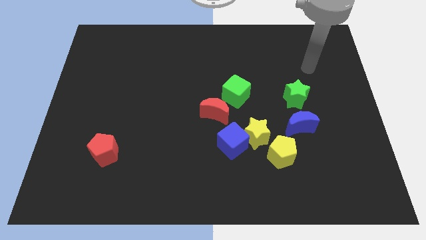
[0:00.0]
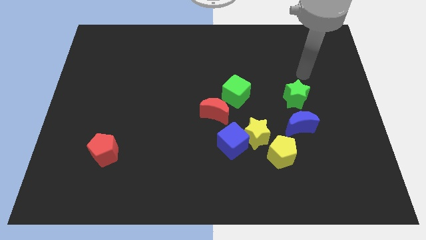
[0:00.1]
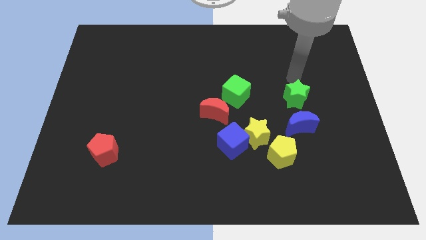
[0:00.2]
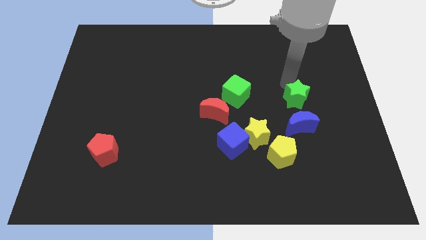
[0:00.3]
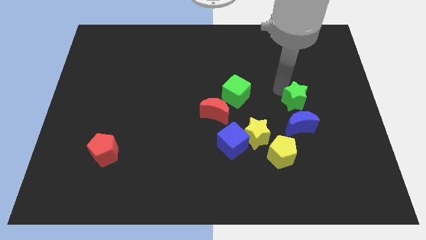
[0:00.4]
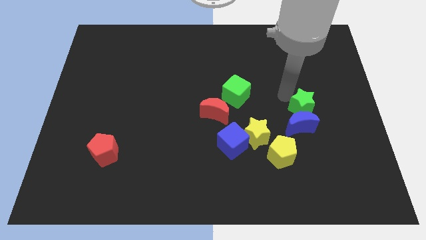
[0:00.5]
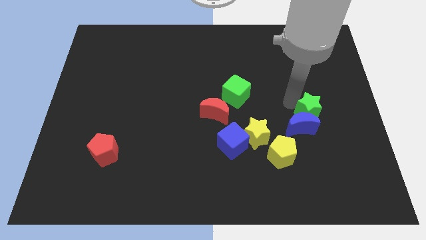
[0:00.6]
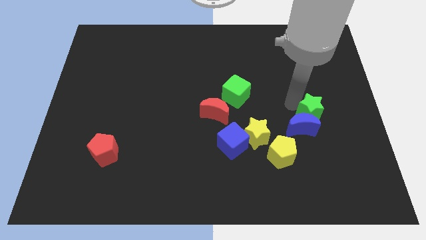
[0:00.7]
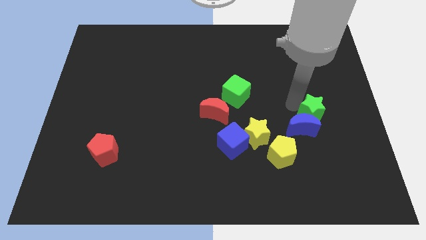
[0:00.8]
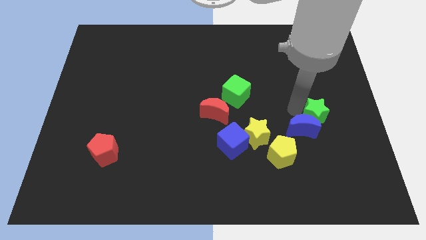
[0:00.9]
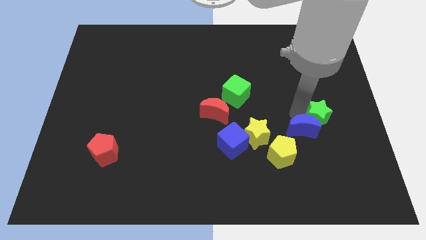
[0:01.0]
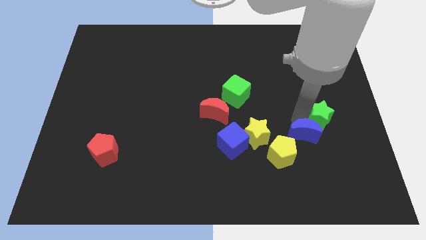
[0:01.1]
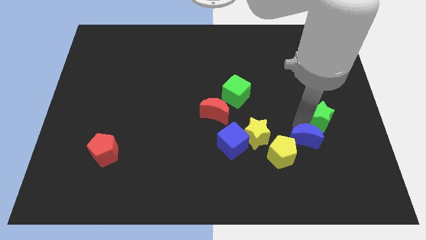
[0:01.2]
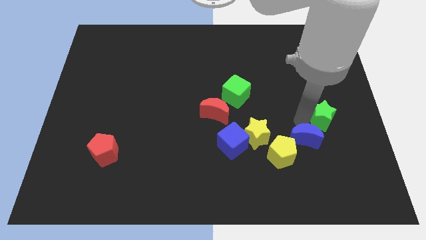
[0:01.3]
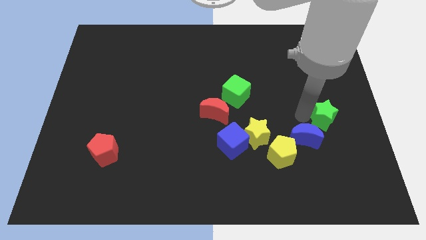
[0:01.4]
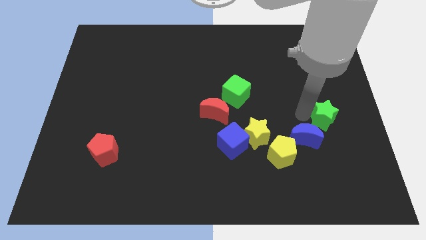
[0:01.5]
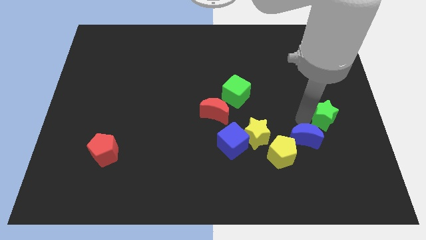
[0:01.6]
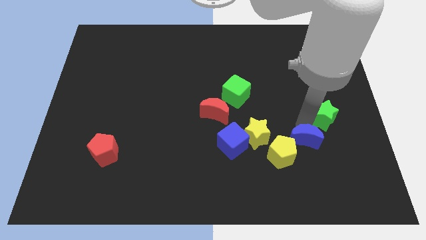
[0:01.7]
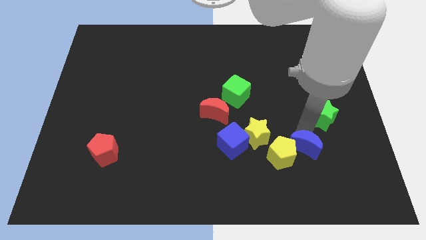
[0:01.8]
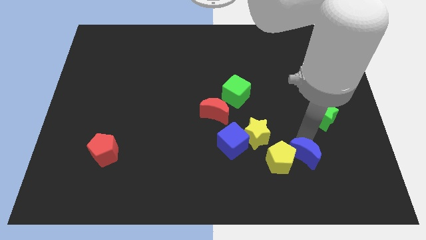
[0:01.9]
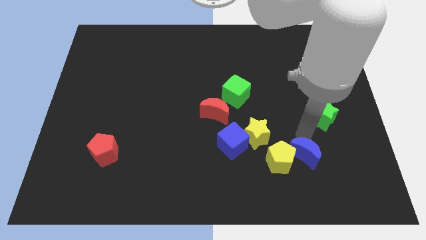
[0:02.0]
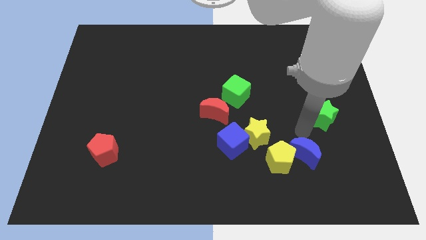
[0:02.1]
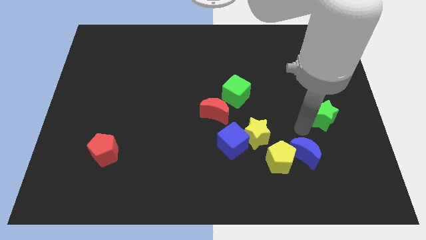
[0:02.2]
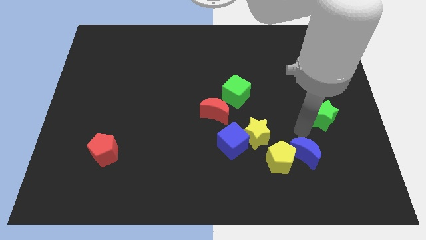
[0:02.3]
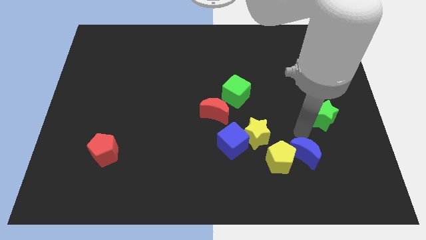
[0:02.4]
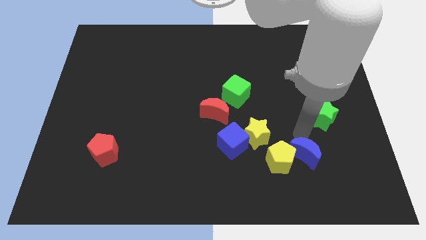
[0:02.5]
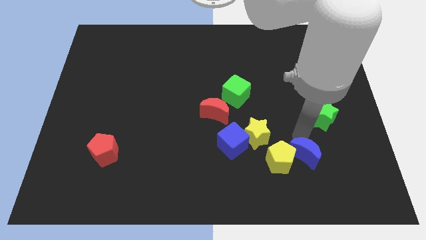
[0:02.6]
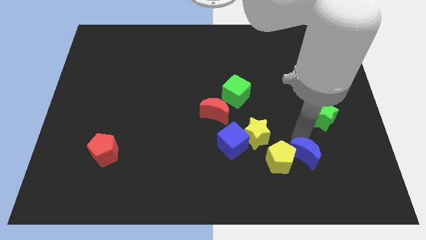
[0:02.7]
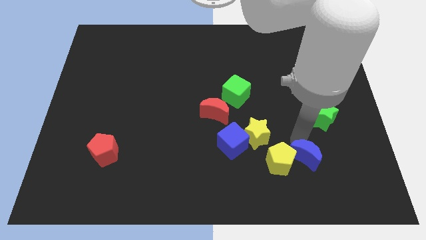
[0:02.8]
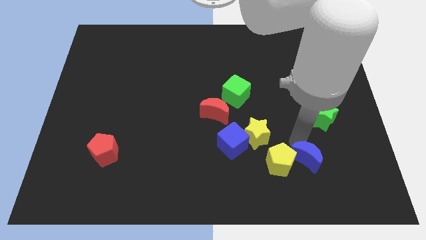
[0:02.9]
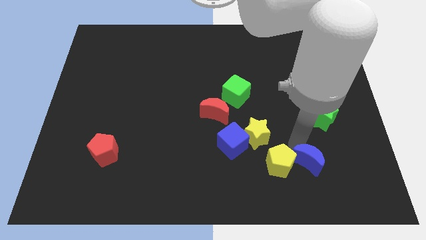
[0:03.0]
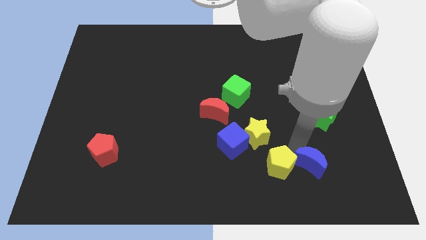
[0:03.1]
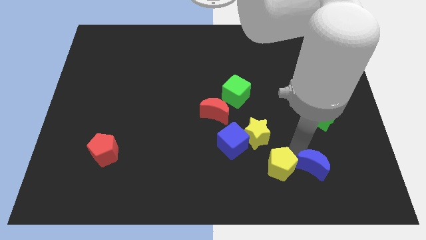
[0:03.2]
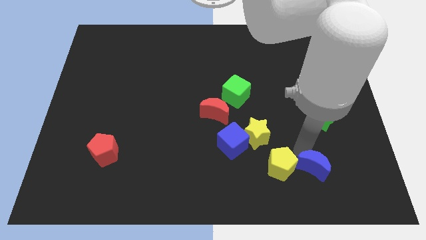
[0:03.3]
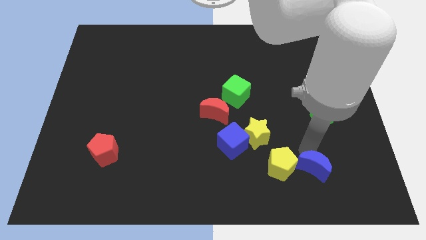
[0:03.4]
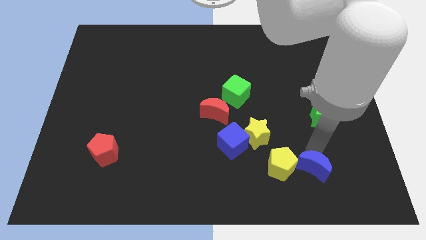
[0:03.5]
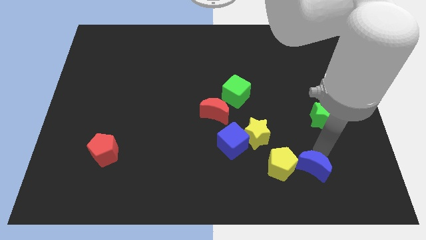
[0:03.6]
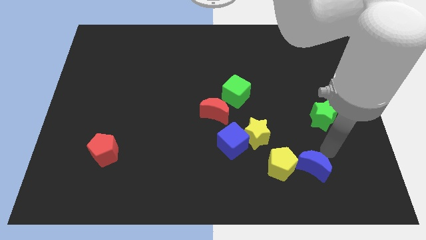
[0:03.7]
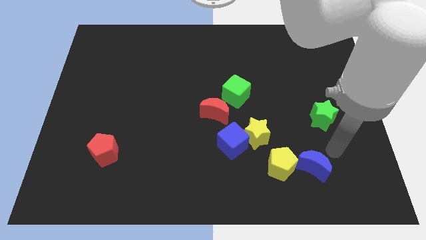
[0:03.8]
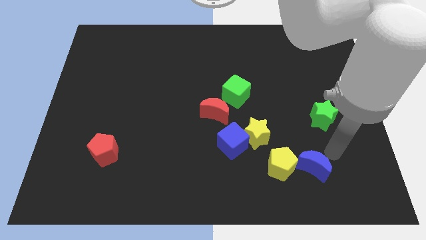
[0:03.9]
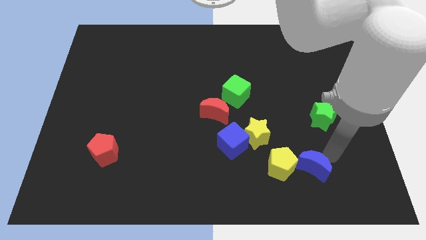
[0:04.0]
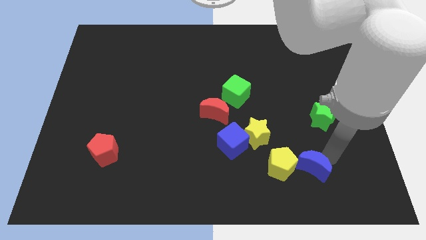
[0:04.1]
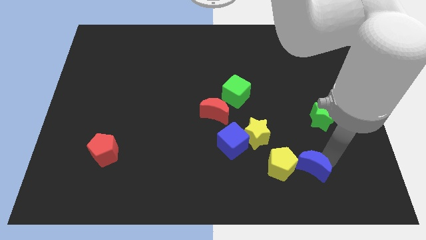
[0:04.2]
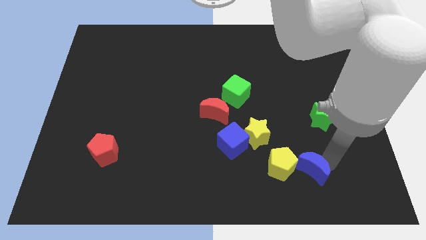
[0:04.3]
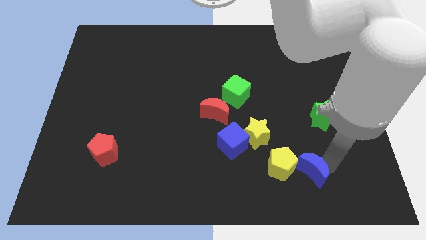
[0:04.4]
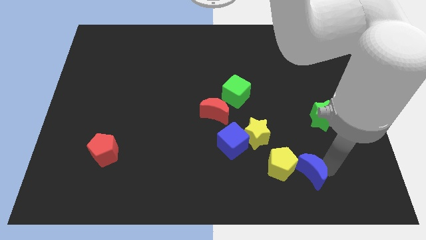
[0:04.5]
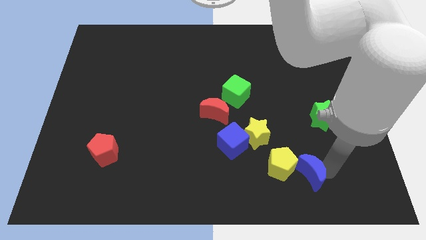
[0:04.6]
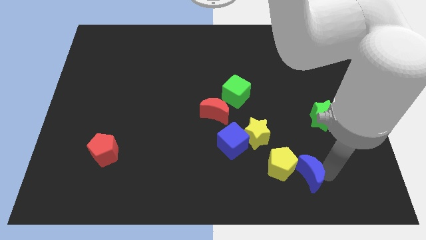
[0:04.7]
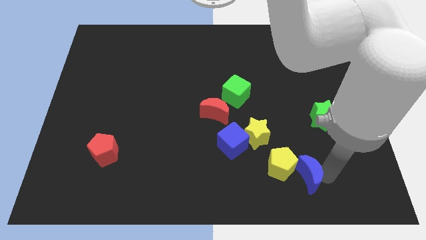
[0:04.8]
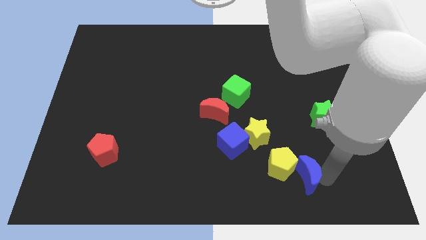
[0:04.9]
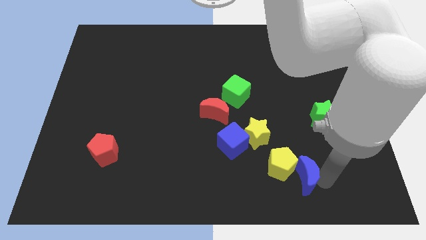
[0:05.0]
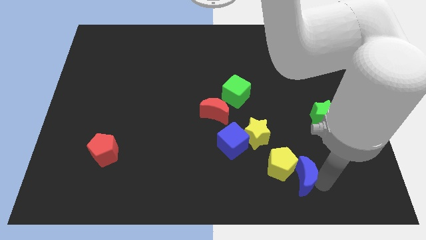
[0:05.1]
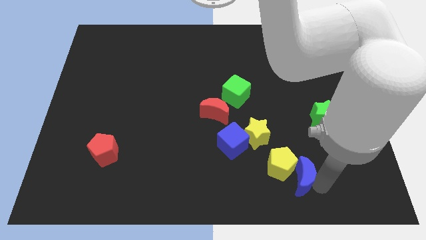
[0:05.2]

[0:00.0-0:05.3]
slide the blue moon somewhat down and left diagonally

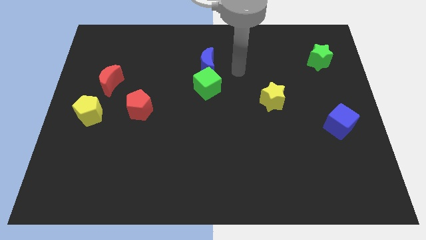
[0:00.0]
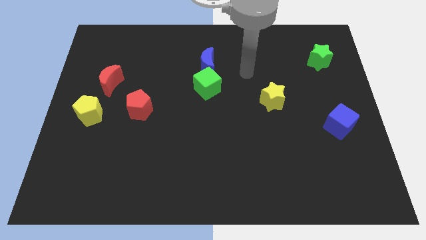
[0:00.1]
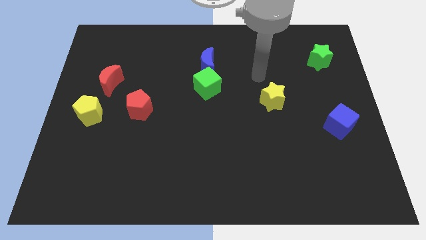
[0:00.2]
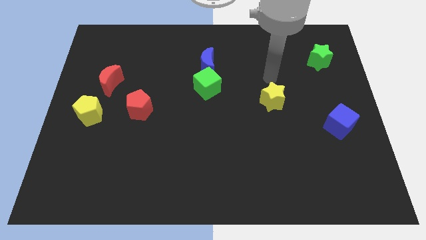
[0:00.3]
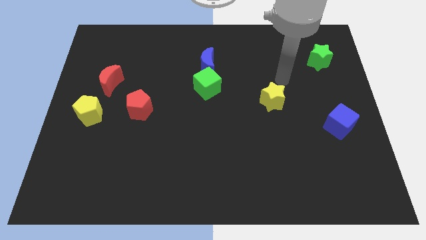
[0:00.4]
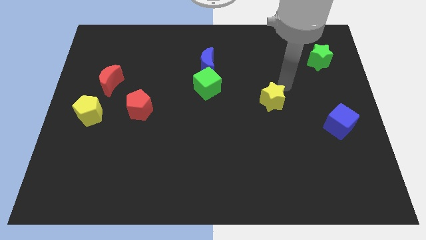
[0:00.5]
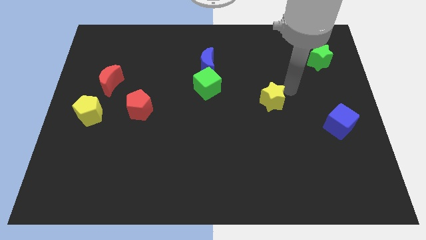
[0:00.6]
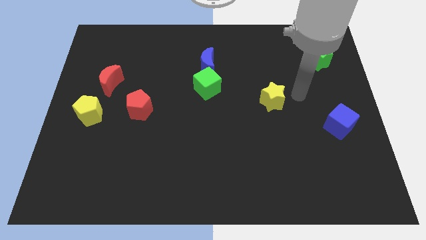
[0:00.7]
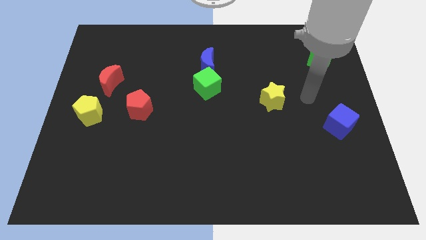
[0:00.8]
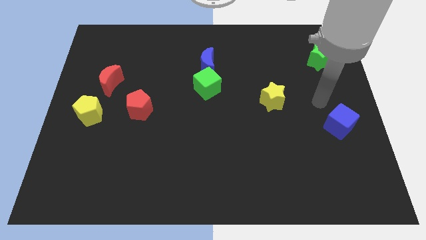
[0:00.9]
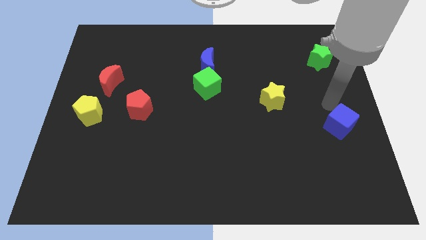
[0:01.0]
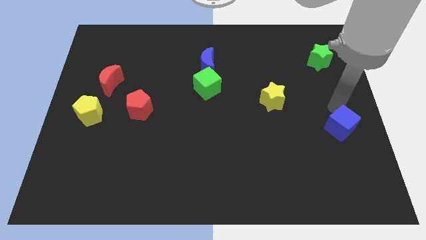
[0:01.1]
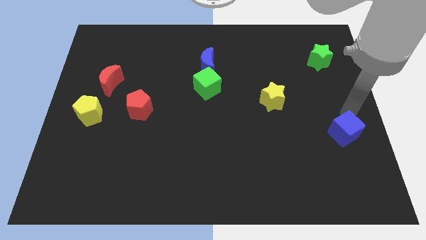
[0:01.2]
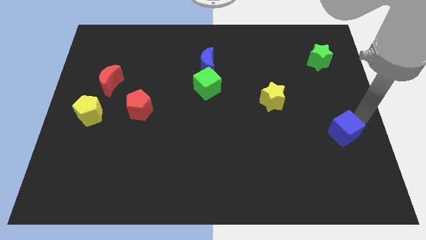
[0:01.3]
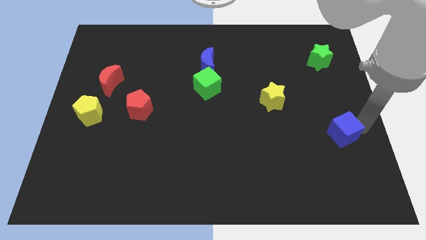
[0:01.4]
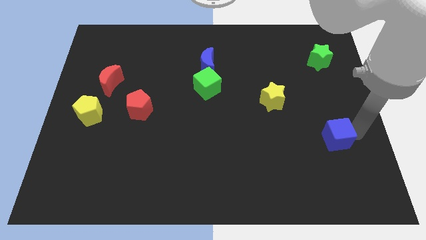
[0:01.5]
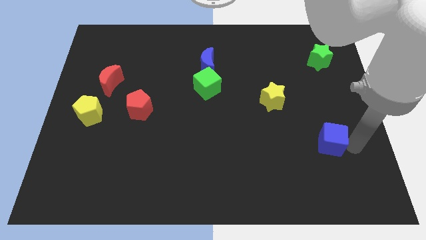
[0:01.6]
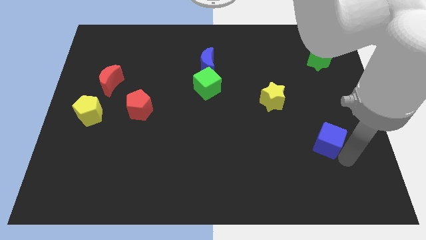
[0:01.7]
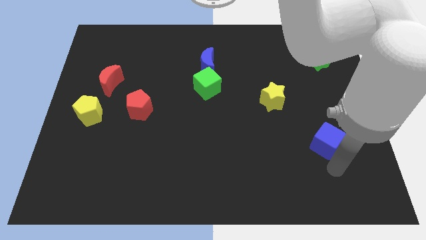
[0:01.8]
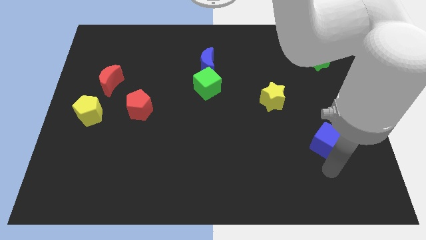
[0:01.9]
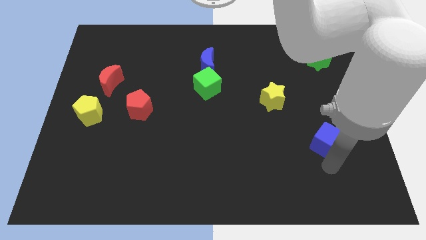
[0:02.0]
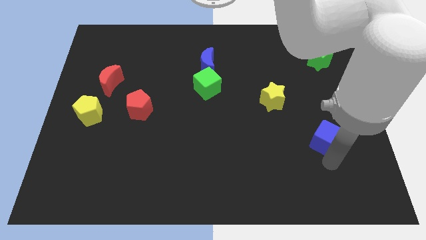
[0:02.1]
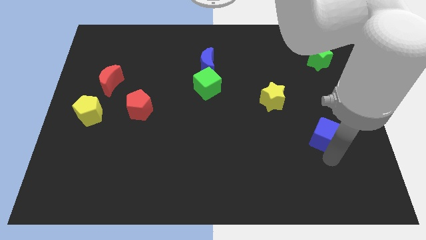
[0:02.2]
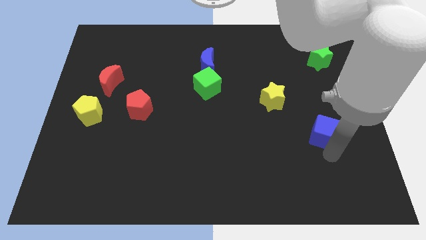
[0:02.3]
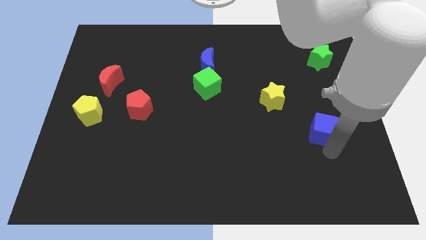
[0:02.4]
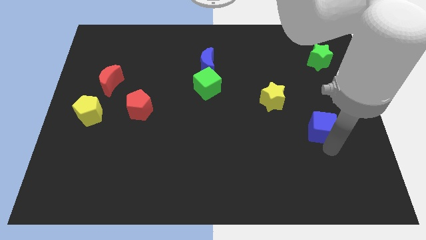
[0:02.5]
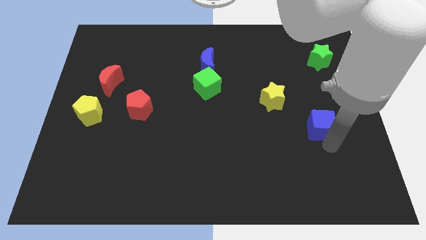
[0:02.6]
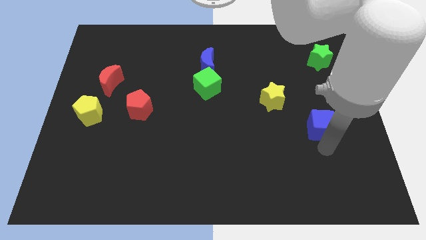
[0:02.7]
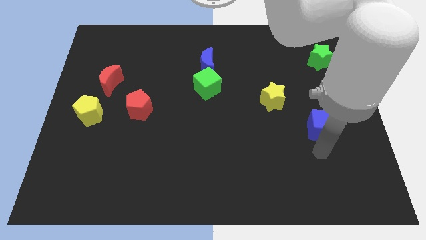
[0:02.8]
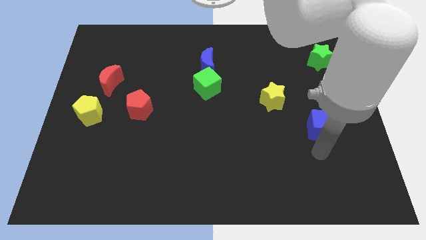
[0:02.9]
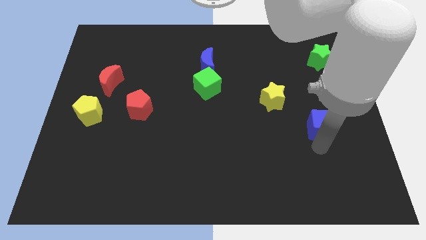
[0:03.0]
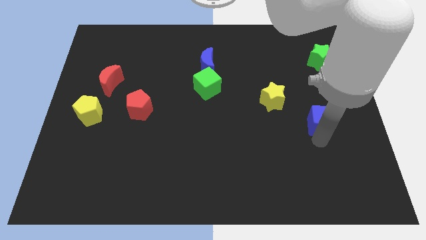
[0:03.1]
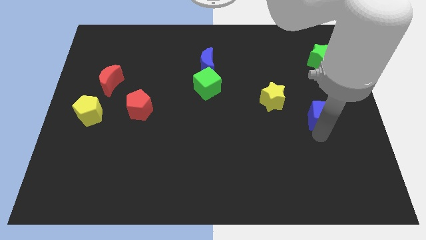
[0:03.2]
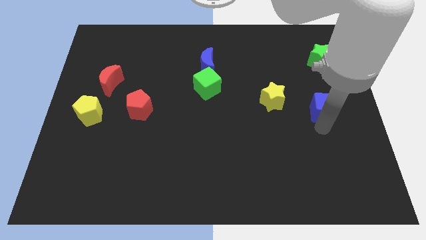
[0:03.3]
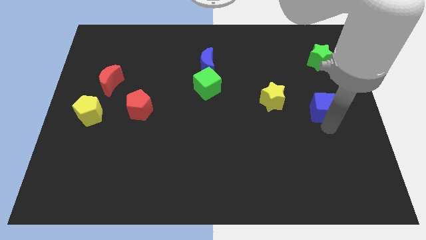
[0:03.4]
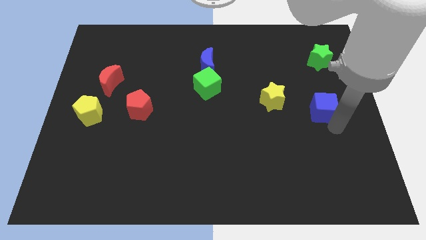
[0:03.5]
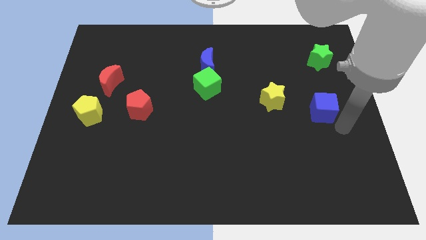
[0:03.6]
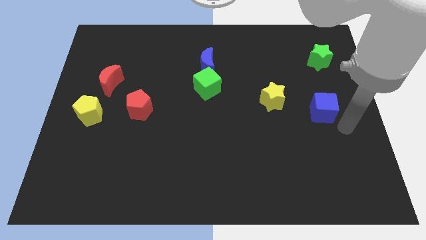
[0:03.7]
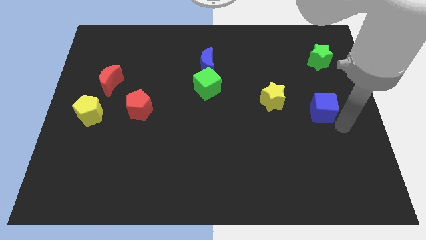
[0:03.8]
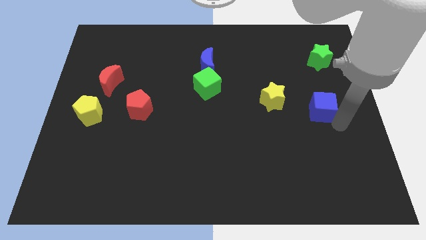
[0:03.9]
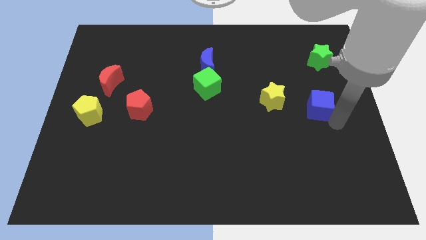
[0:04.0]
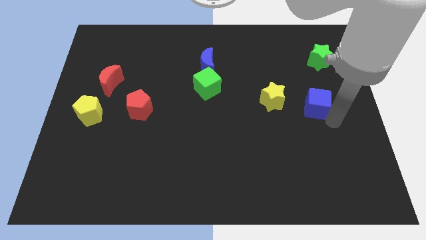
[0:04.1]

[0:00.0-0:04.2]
slightly slide the blue cube upwards and to the left diagonally
